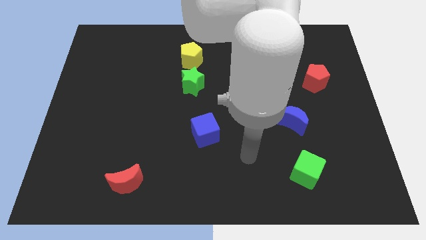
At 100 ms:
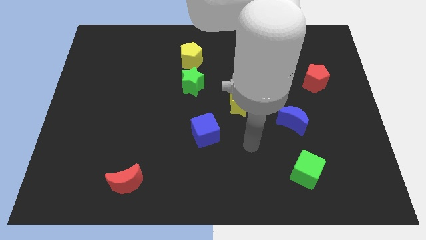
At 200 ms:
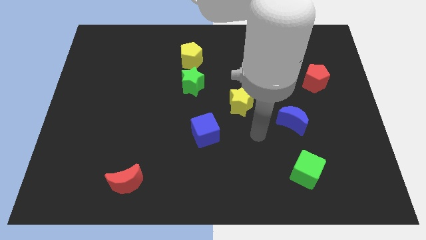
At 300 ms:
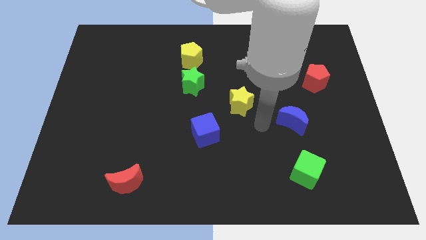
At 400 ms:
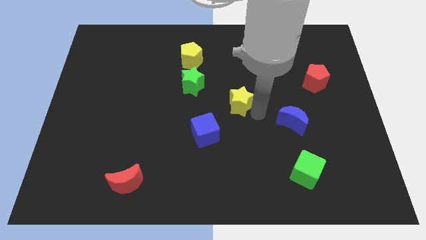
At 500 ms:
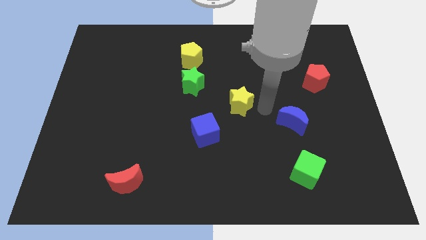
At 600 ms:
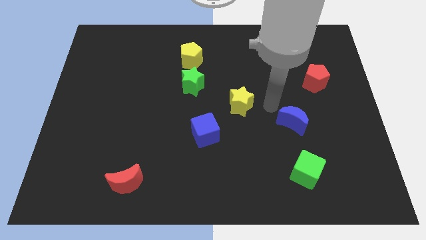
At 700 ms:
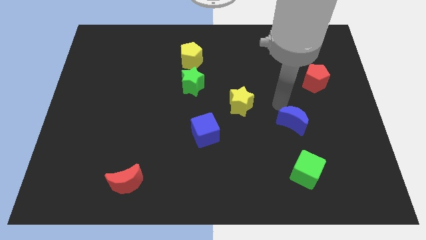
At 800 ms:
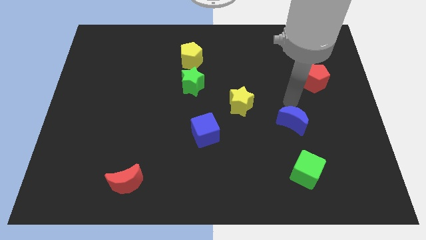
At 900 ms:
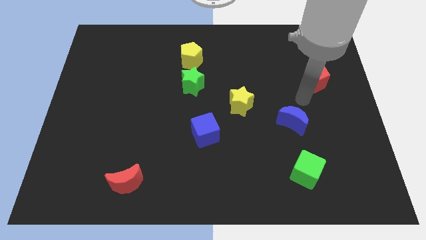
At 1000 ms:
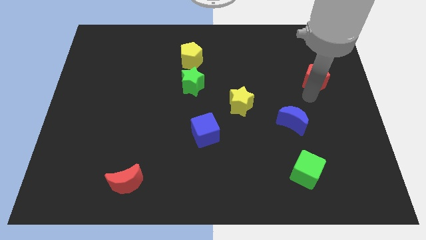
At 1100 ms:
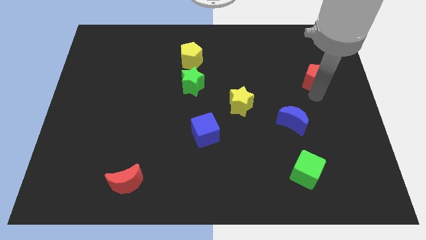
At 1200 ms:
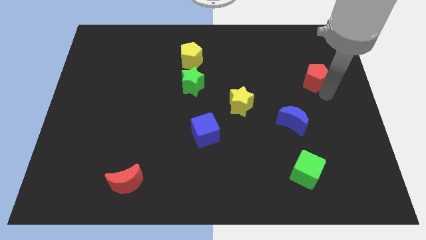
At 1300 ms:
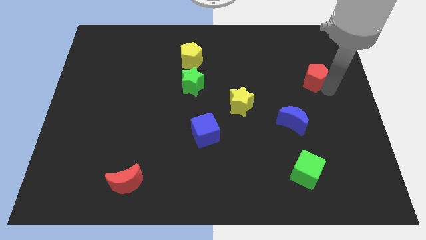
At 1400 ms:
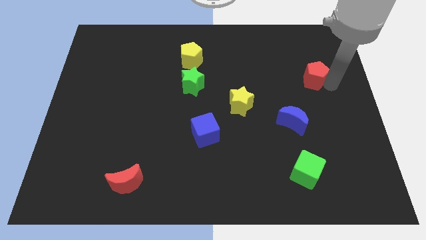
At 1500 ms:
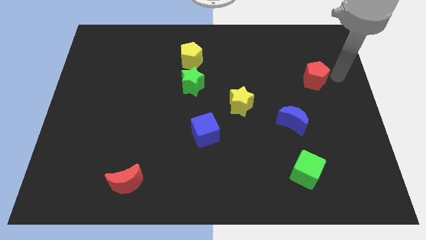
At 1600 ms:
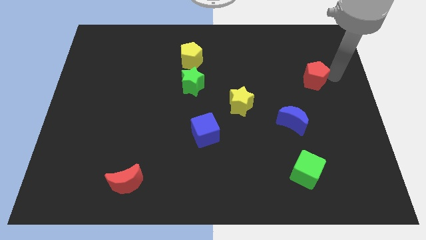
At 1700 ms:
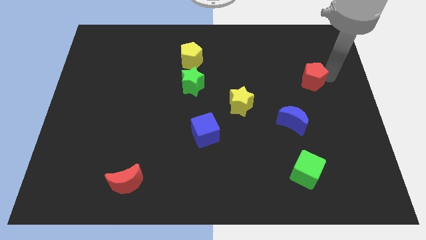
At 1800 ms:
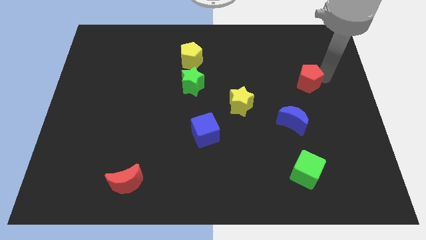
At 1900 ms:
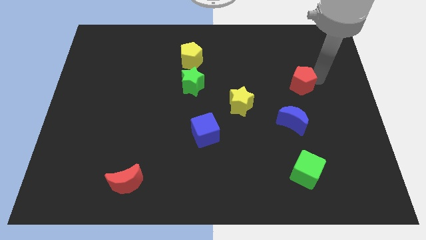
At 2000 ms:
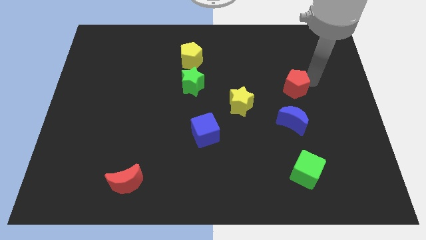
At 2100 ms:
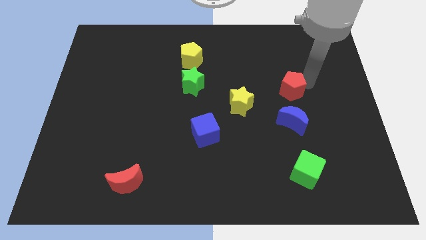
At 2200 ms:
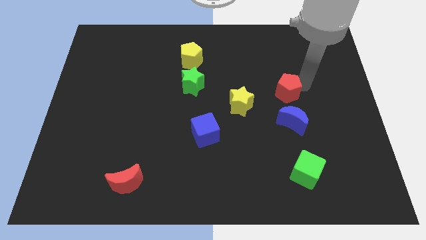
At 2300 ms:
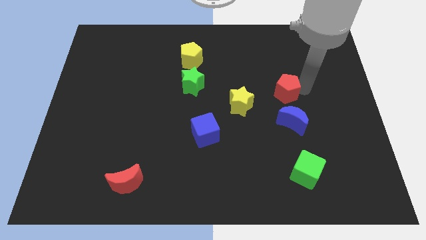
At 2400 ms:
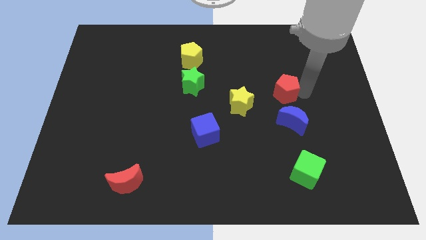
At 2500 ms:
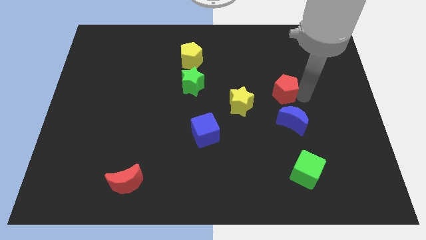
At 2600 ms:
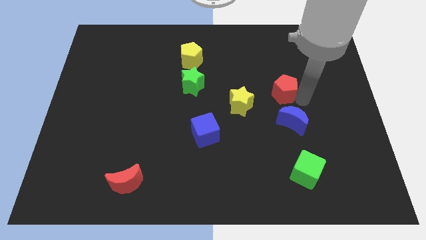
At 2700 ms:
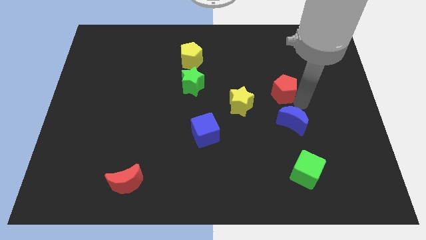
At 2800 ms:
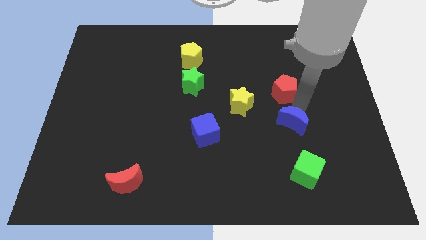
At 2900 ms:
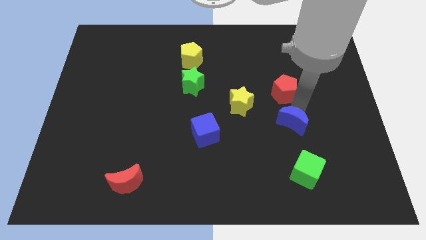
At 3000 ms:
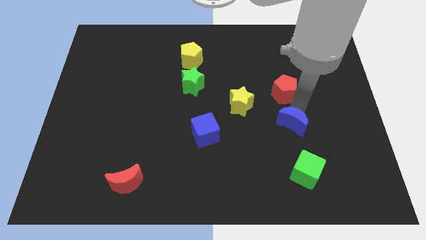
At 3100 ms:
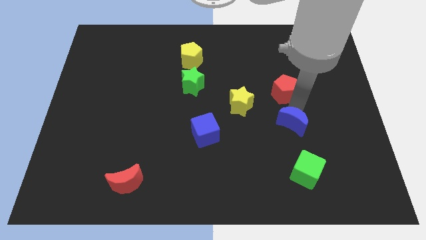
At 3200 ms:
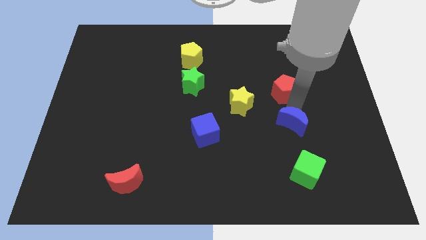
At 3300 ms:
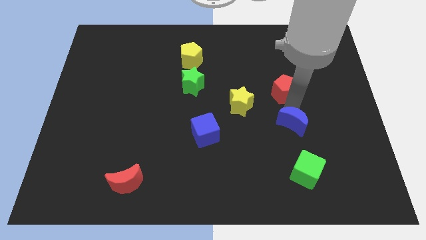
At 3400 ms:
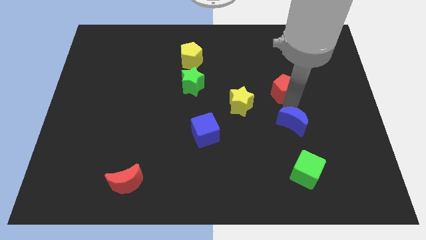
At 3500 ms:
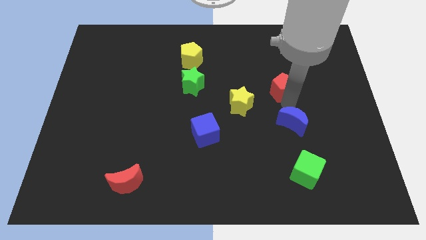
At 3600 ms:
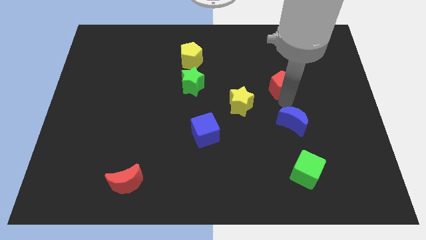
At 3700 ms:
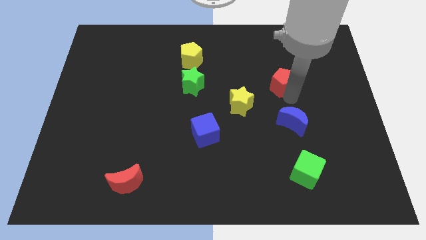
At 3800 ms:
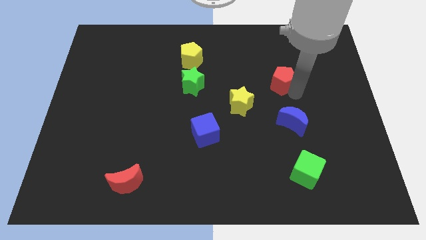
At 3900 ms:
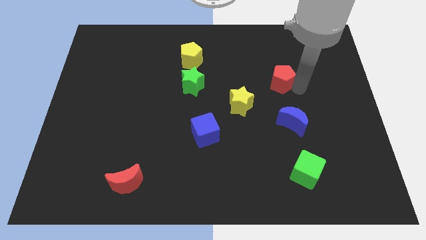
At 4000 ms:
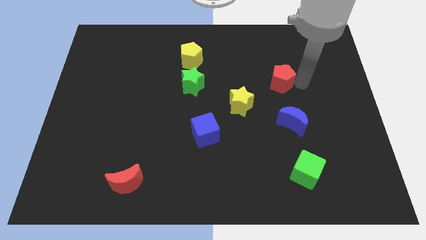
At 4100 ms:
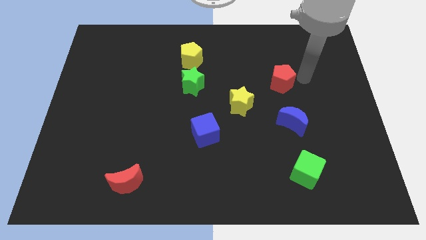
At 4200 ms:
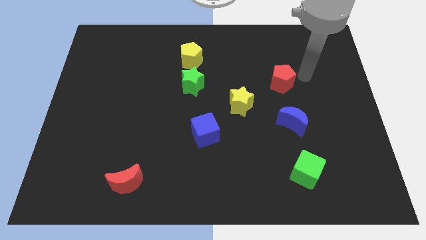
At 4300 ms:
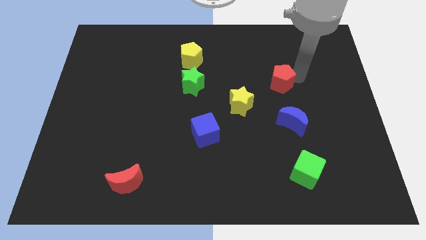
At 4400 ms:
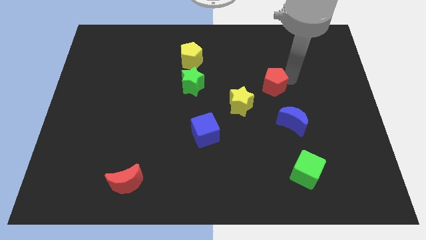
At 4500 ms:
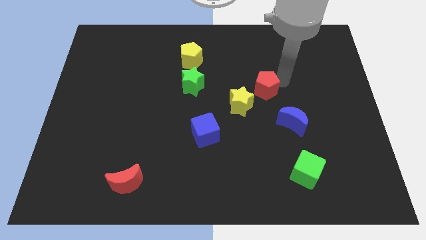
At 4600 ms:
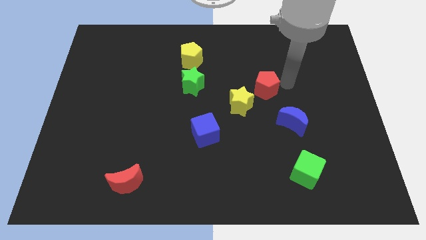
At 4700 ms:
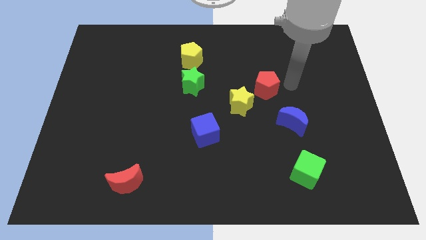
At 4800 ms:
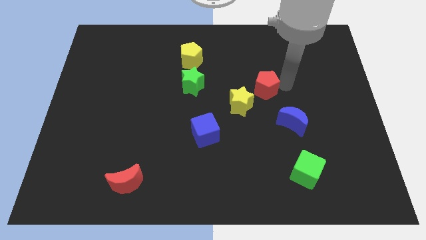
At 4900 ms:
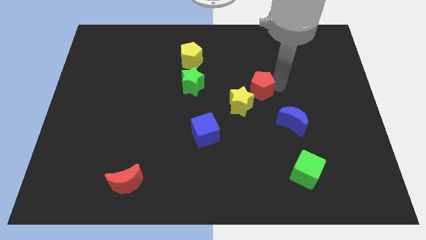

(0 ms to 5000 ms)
slide the red pentagon to the center of the board

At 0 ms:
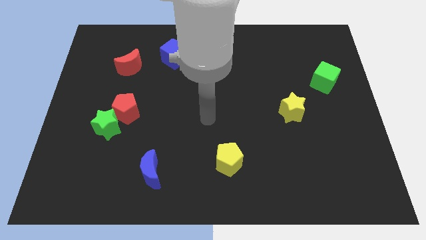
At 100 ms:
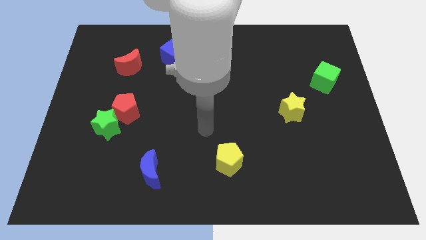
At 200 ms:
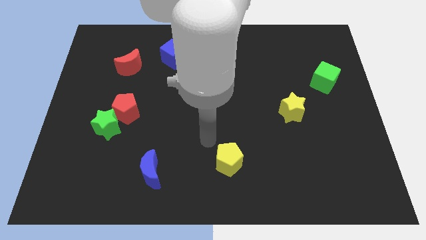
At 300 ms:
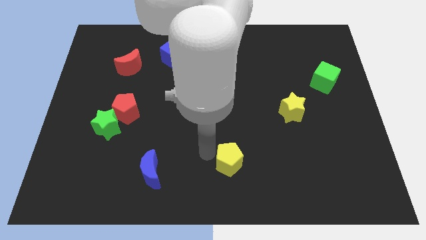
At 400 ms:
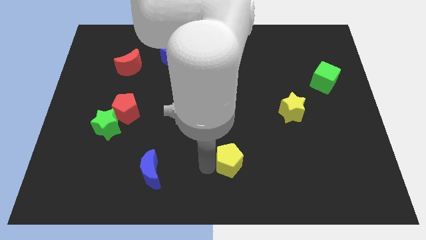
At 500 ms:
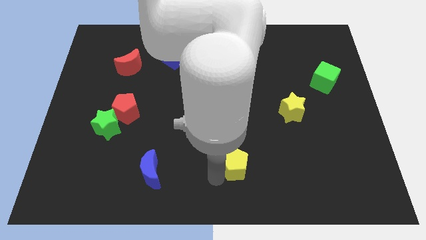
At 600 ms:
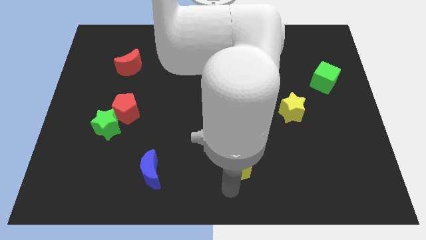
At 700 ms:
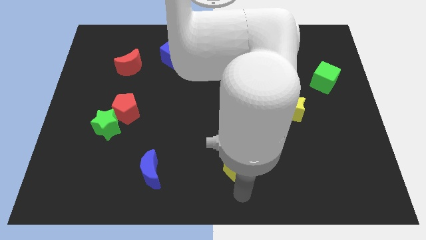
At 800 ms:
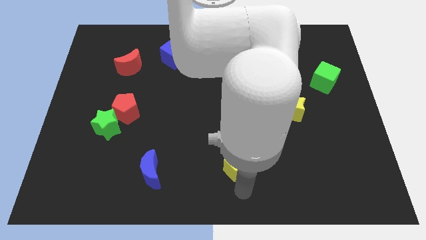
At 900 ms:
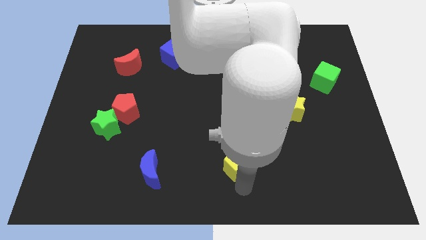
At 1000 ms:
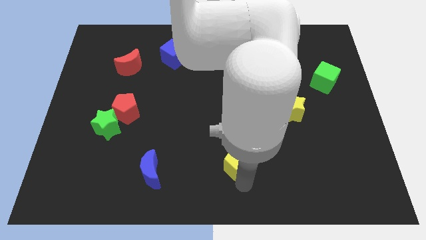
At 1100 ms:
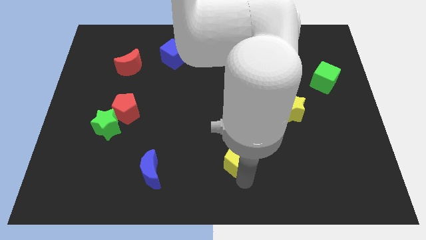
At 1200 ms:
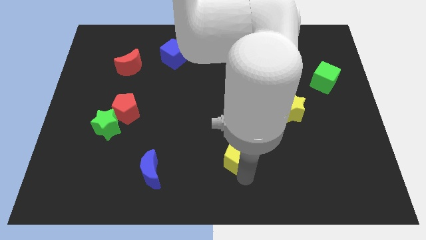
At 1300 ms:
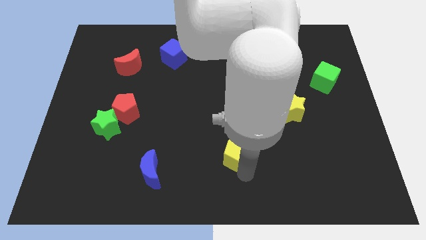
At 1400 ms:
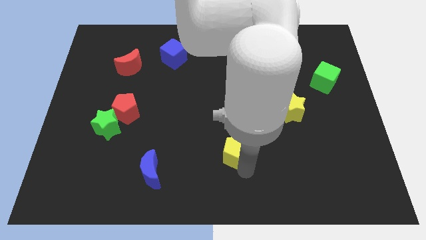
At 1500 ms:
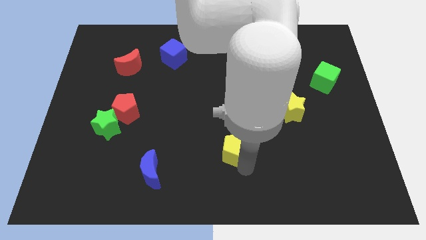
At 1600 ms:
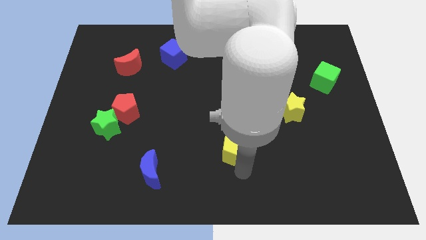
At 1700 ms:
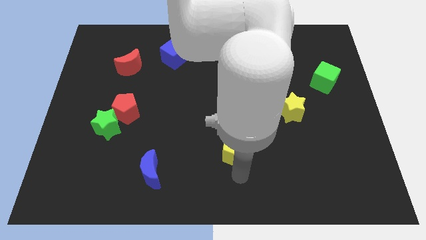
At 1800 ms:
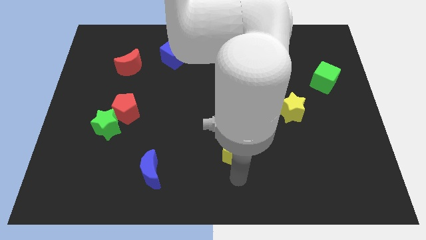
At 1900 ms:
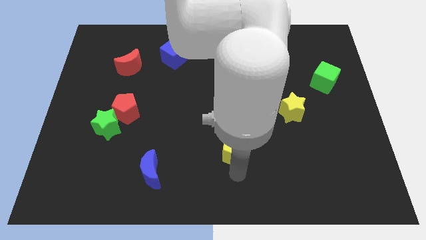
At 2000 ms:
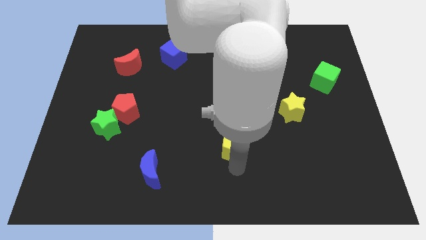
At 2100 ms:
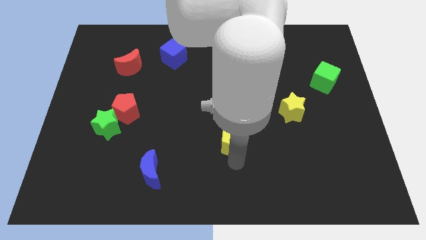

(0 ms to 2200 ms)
slide the yellow pentagon to the middle

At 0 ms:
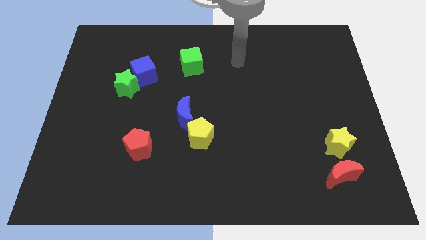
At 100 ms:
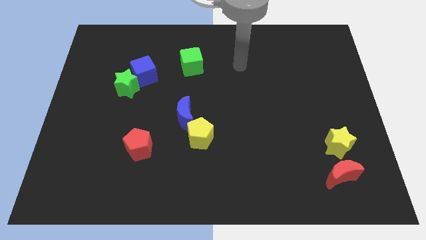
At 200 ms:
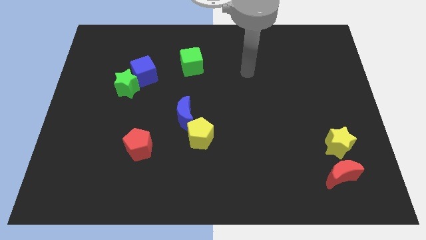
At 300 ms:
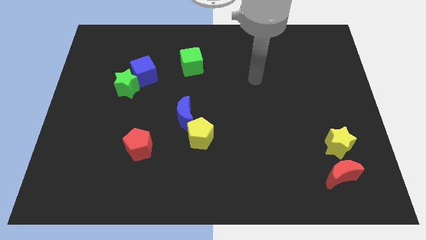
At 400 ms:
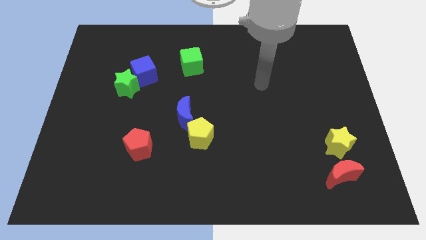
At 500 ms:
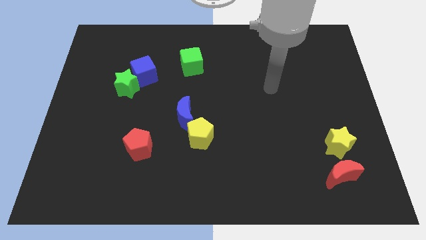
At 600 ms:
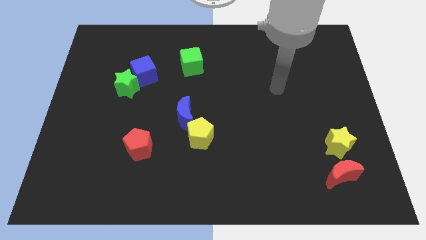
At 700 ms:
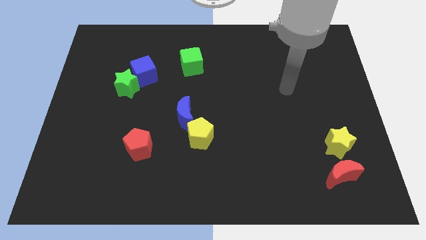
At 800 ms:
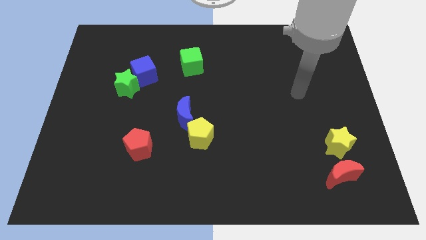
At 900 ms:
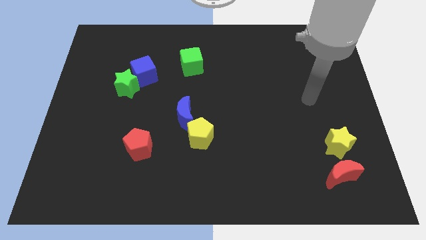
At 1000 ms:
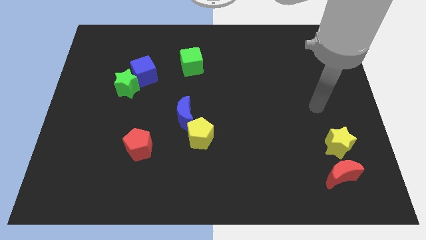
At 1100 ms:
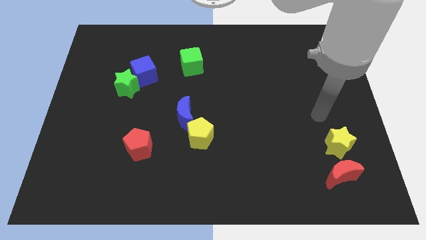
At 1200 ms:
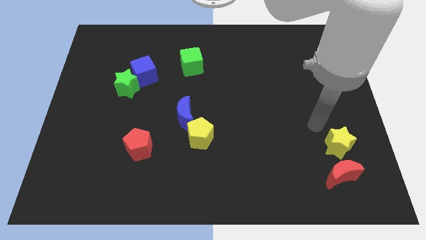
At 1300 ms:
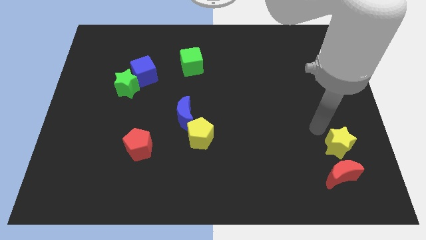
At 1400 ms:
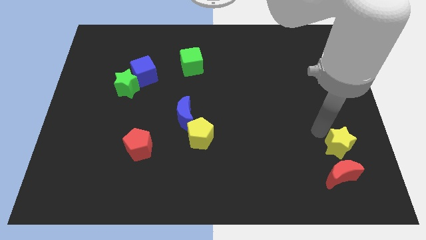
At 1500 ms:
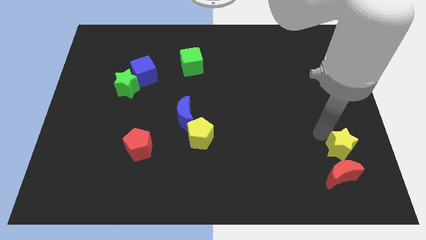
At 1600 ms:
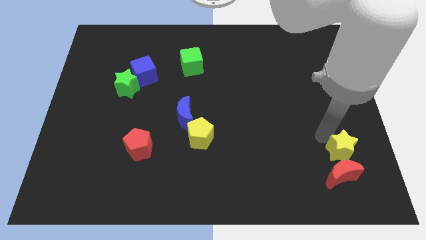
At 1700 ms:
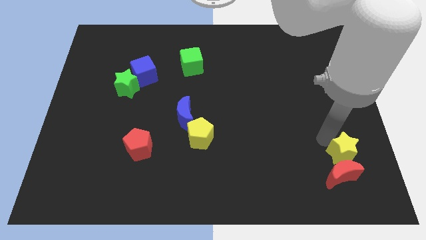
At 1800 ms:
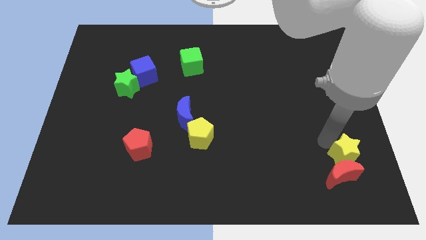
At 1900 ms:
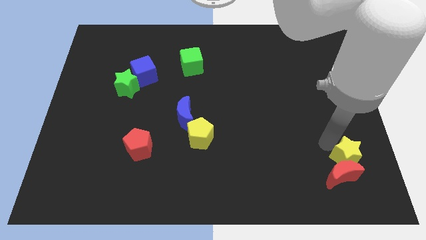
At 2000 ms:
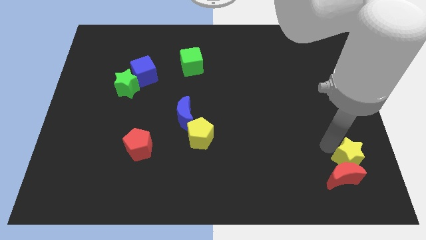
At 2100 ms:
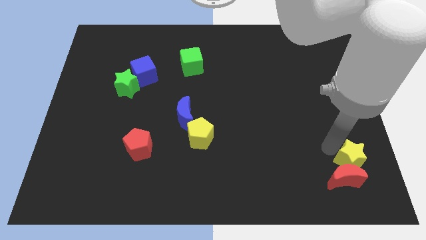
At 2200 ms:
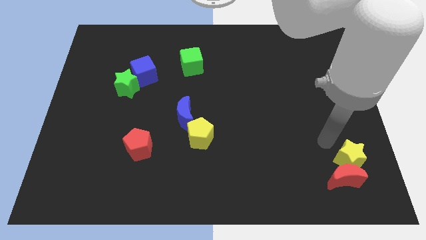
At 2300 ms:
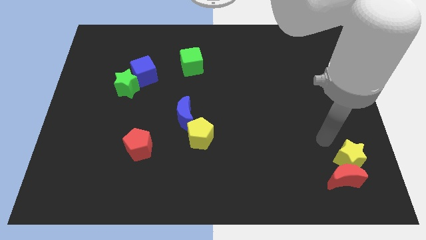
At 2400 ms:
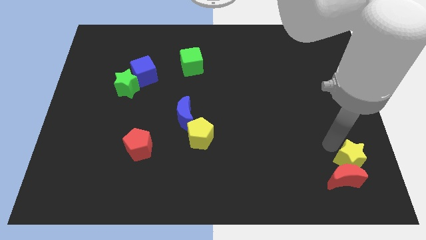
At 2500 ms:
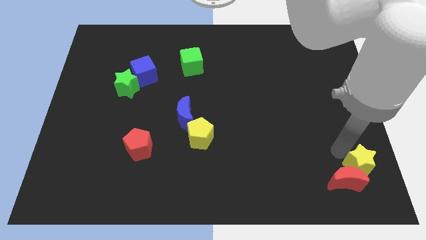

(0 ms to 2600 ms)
slide the yellow star to the bottom right
